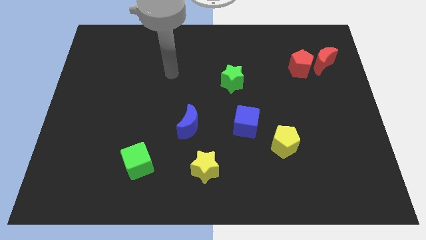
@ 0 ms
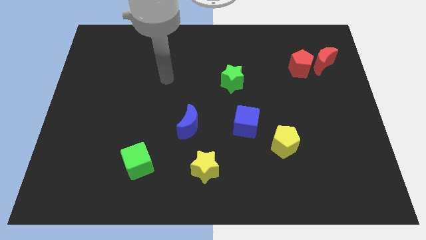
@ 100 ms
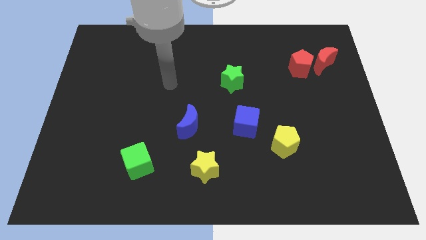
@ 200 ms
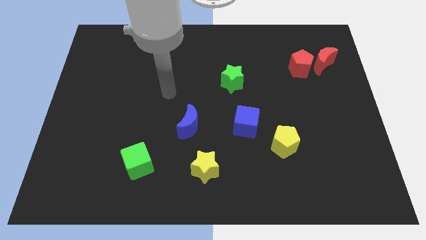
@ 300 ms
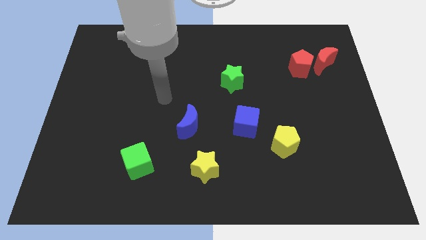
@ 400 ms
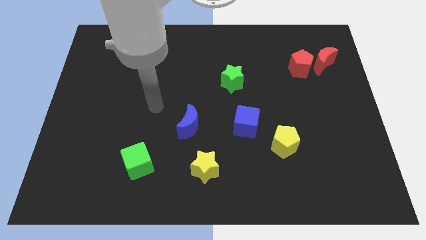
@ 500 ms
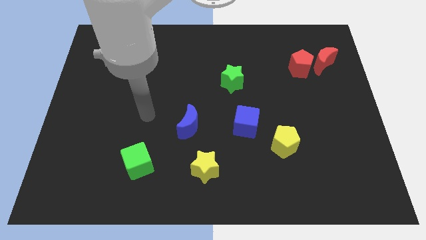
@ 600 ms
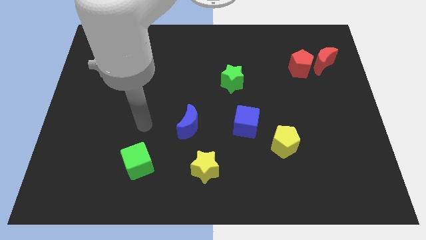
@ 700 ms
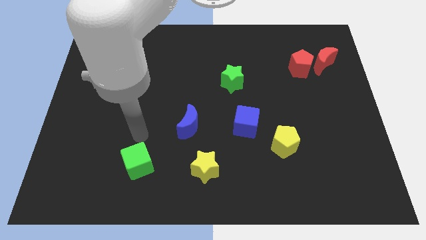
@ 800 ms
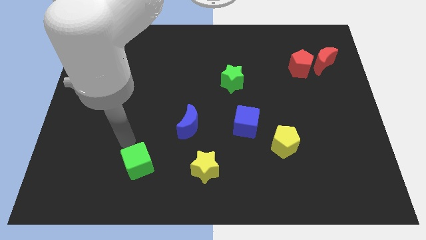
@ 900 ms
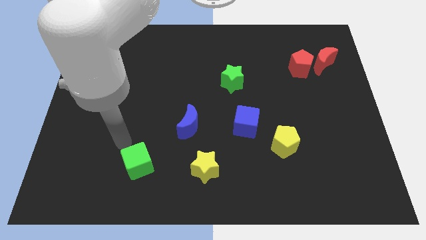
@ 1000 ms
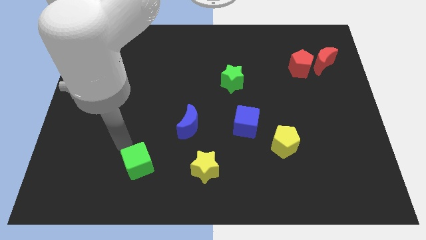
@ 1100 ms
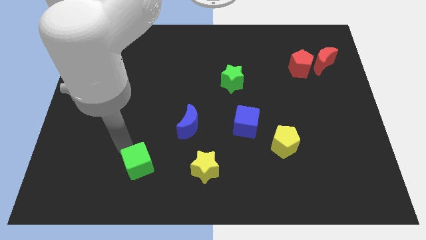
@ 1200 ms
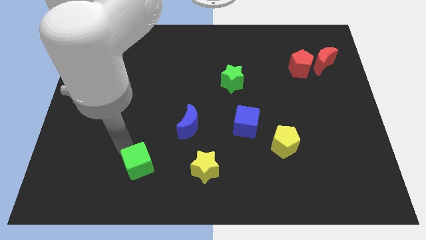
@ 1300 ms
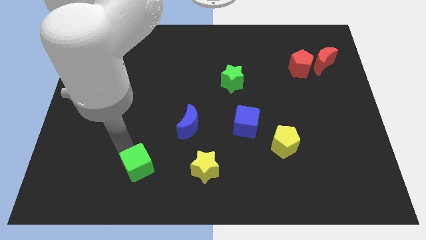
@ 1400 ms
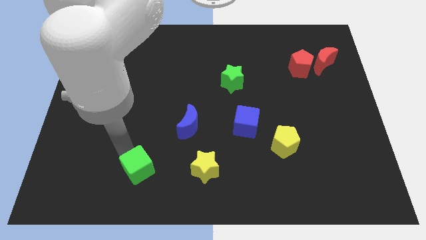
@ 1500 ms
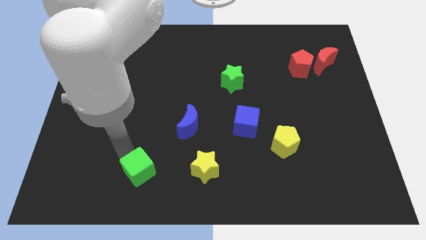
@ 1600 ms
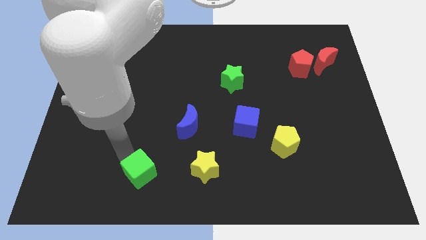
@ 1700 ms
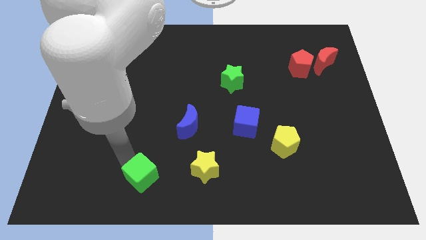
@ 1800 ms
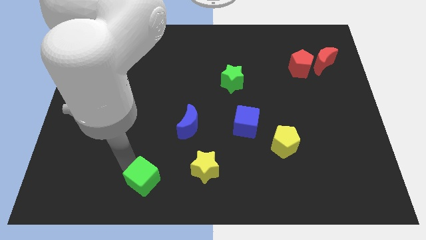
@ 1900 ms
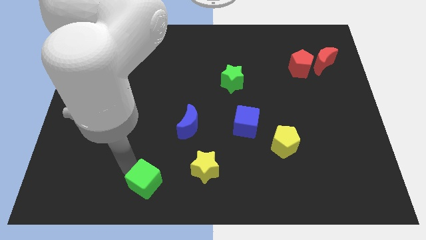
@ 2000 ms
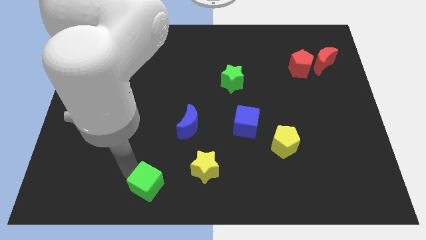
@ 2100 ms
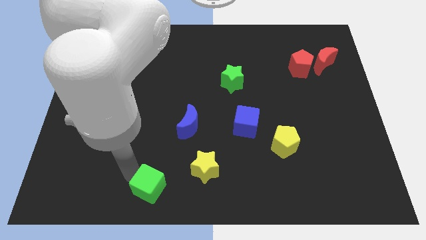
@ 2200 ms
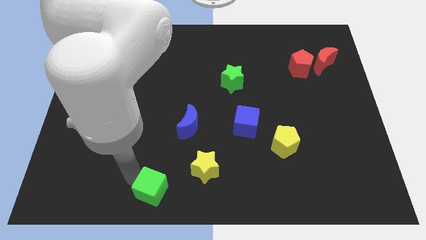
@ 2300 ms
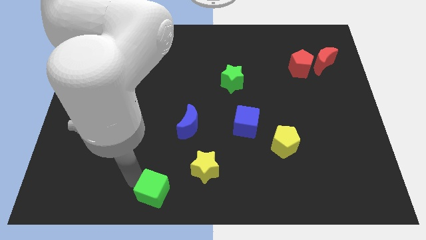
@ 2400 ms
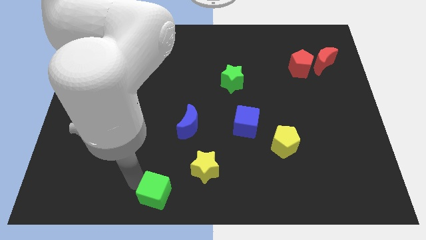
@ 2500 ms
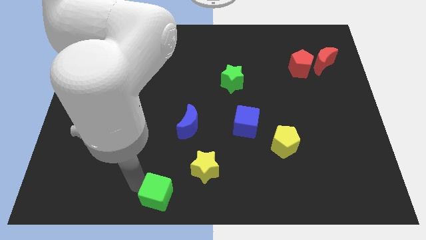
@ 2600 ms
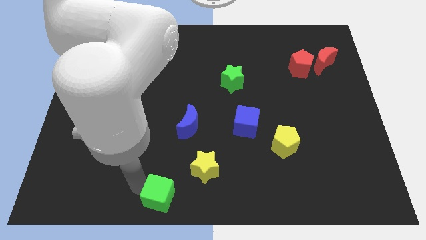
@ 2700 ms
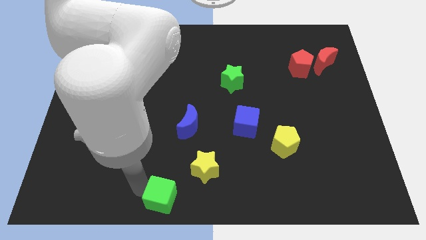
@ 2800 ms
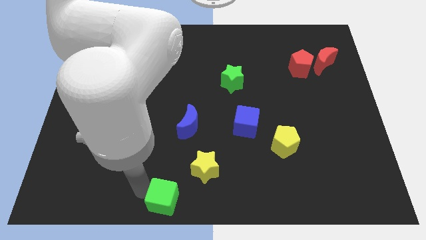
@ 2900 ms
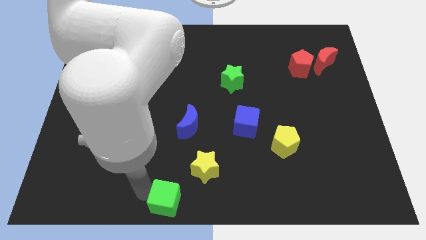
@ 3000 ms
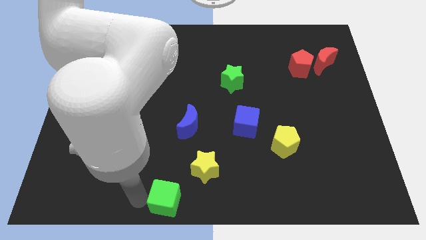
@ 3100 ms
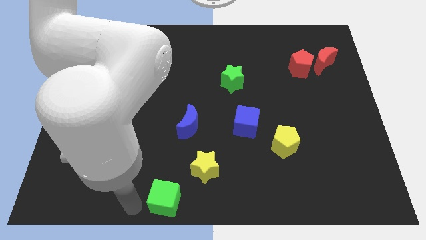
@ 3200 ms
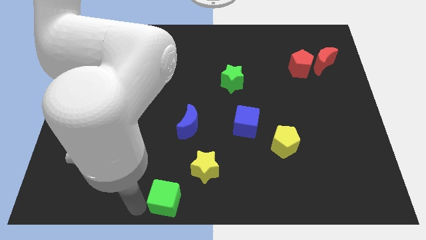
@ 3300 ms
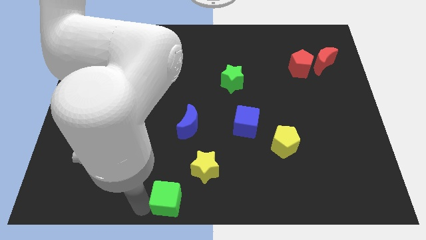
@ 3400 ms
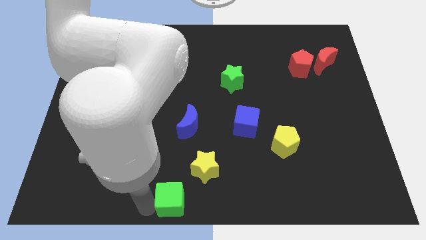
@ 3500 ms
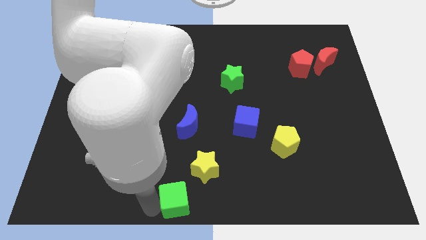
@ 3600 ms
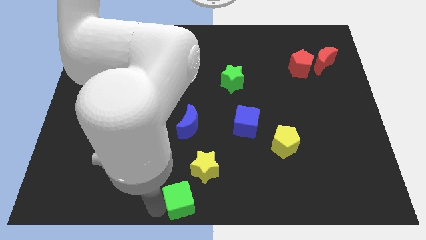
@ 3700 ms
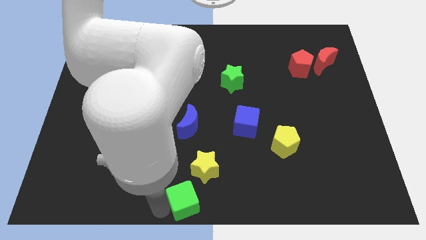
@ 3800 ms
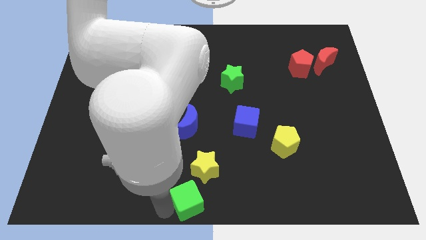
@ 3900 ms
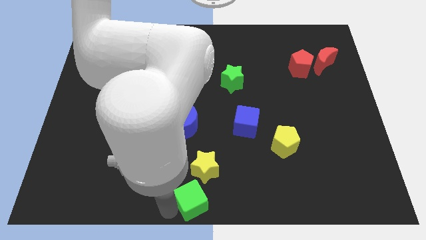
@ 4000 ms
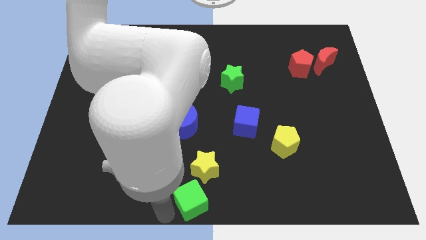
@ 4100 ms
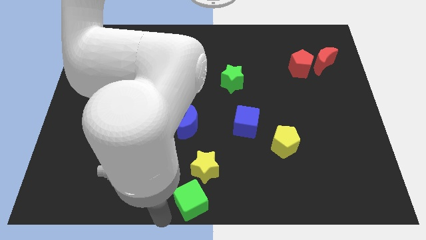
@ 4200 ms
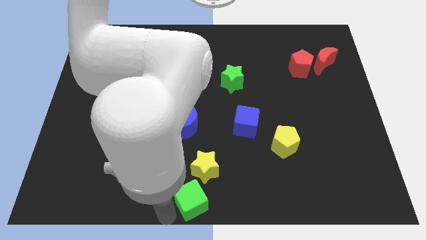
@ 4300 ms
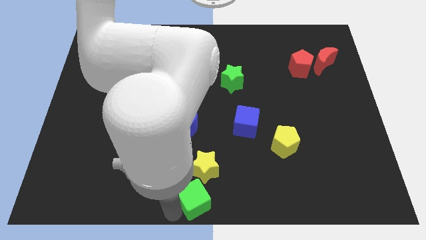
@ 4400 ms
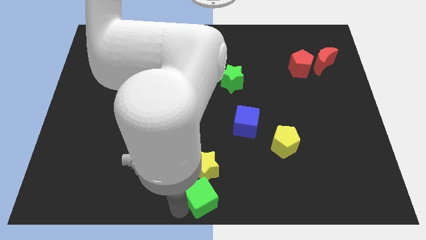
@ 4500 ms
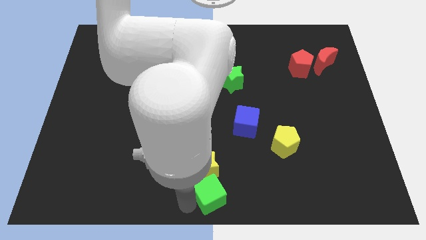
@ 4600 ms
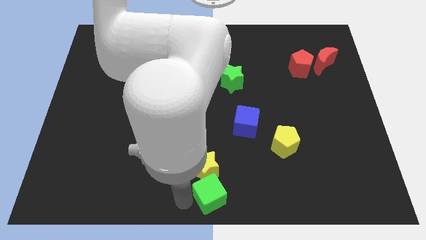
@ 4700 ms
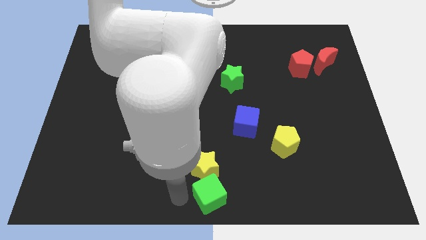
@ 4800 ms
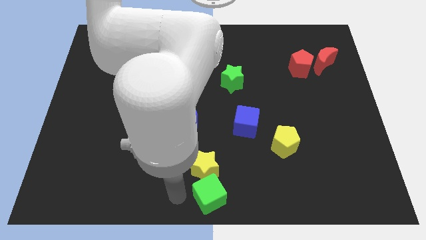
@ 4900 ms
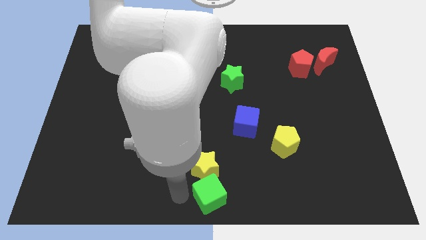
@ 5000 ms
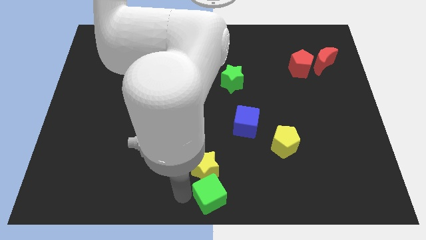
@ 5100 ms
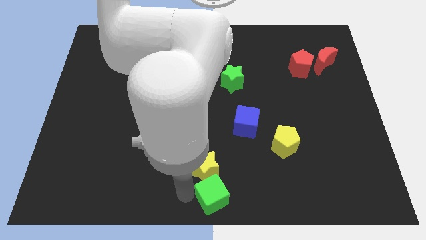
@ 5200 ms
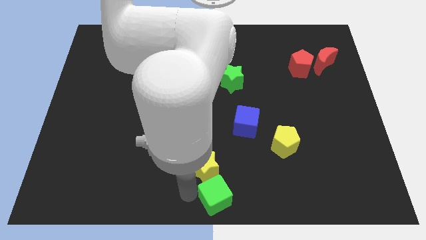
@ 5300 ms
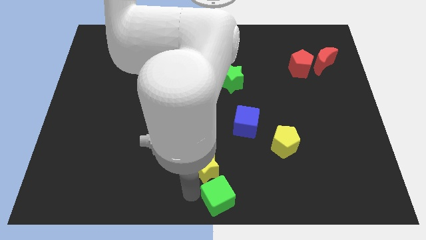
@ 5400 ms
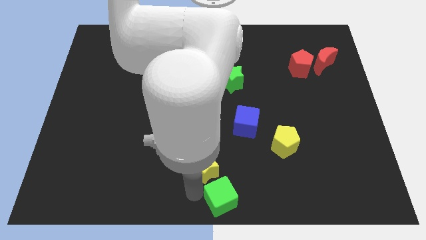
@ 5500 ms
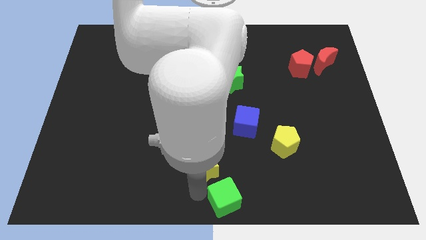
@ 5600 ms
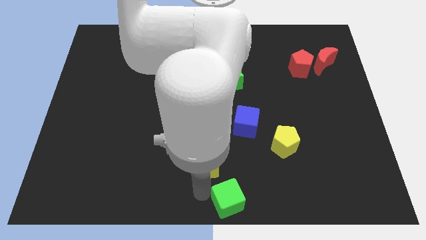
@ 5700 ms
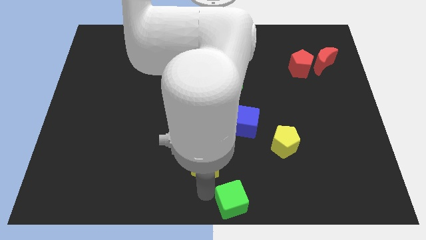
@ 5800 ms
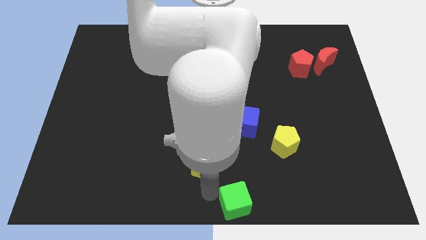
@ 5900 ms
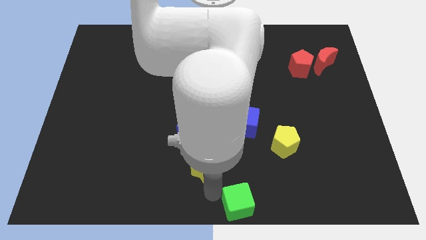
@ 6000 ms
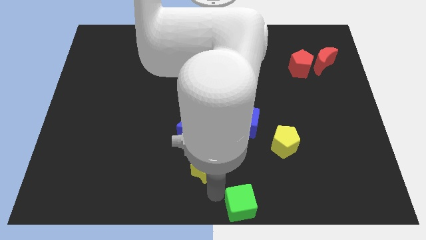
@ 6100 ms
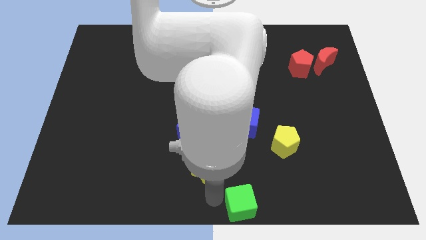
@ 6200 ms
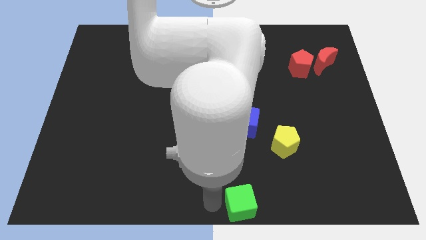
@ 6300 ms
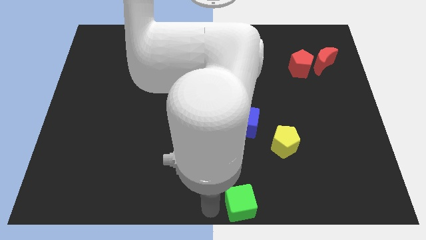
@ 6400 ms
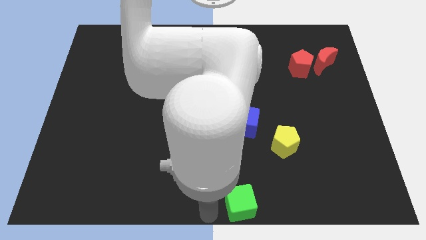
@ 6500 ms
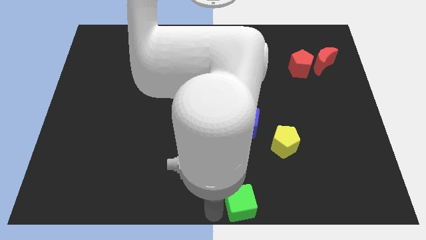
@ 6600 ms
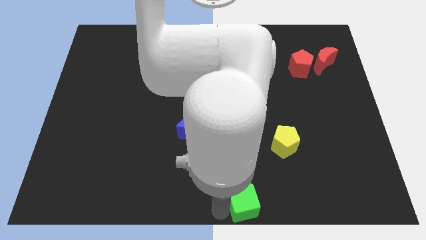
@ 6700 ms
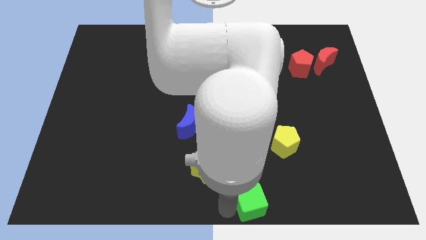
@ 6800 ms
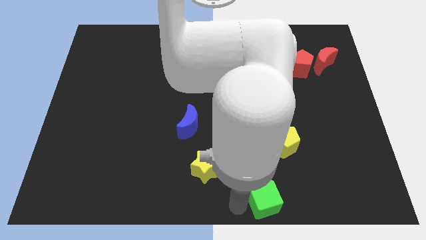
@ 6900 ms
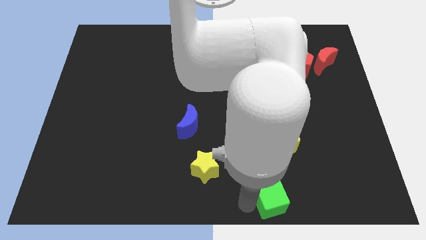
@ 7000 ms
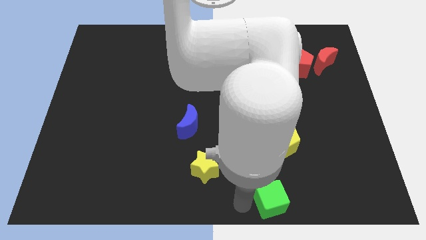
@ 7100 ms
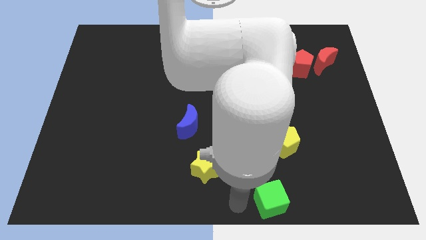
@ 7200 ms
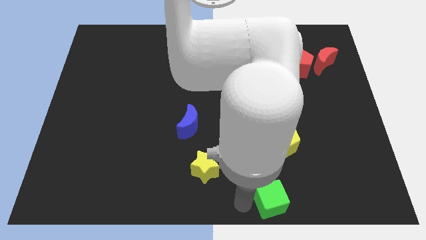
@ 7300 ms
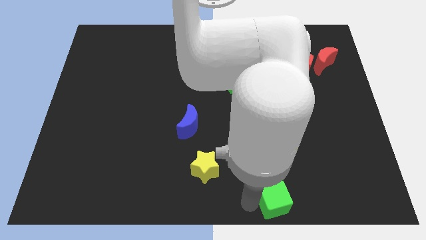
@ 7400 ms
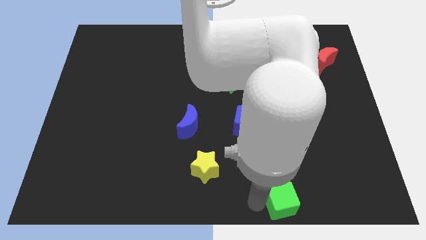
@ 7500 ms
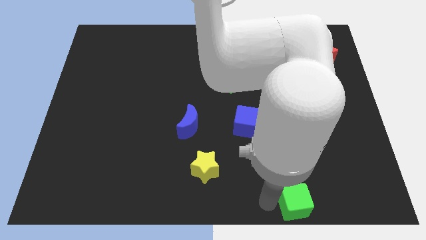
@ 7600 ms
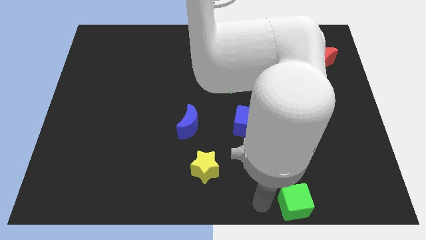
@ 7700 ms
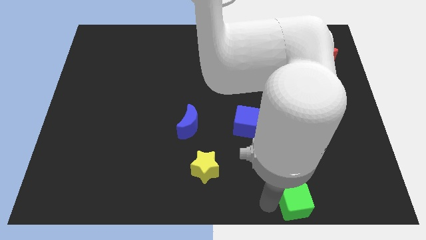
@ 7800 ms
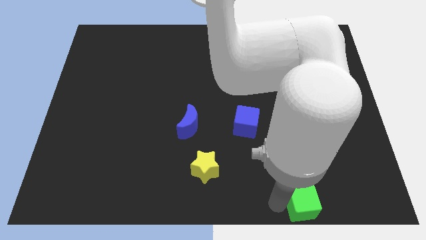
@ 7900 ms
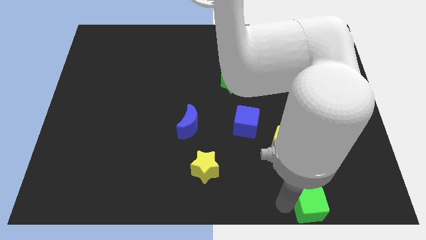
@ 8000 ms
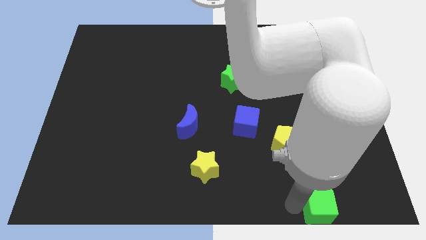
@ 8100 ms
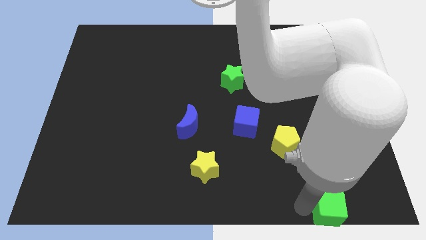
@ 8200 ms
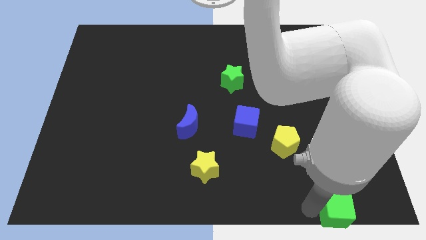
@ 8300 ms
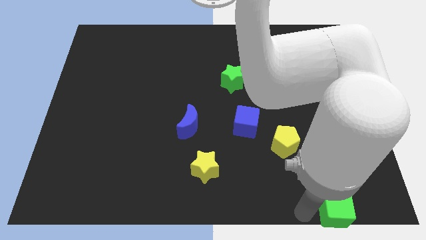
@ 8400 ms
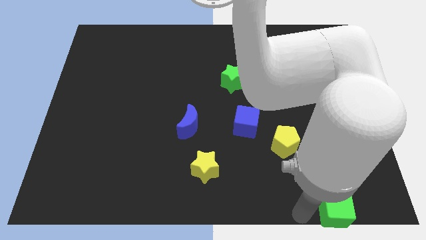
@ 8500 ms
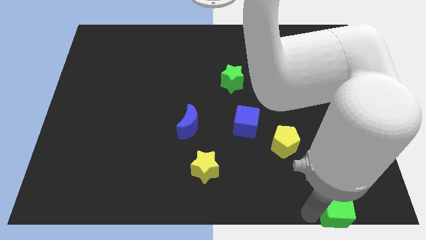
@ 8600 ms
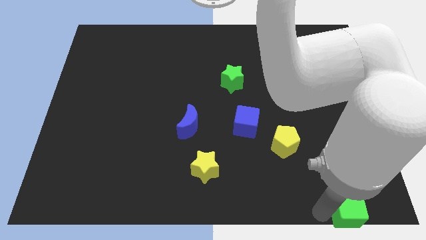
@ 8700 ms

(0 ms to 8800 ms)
put the green cube to the bottom right
